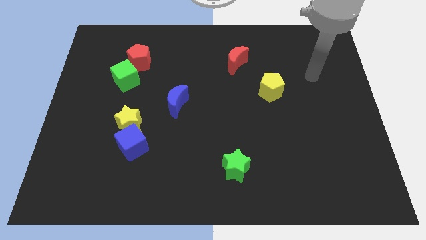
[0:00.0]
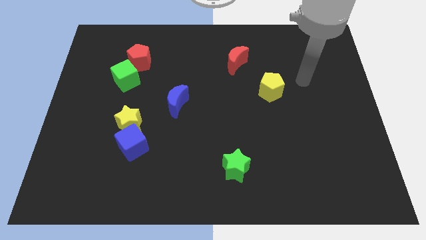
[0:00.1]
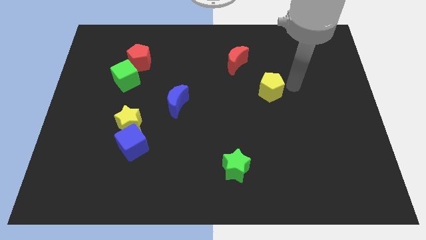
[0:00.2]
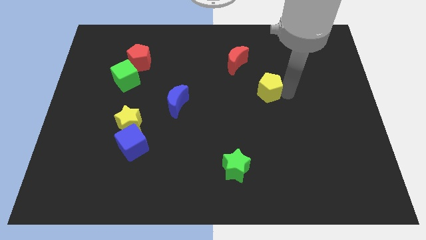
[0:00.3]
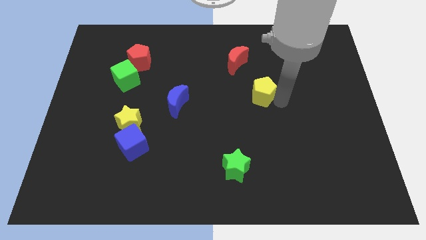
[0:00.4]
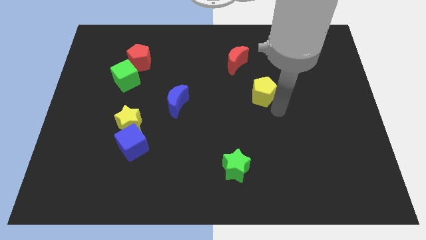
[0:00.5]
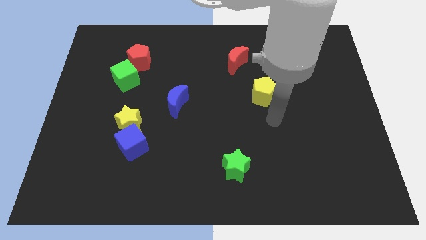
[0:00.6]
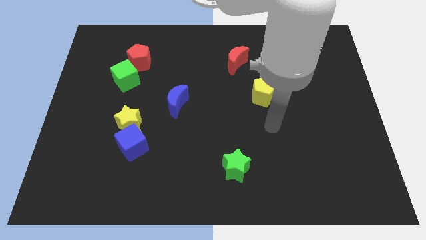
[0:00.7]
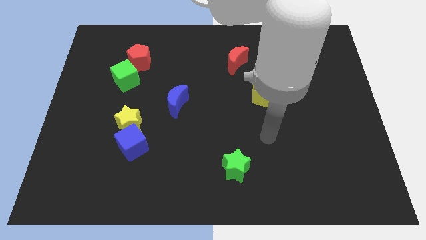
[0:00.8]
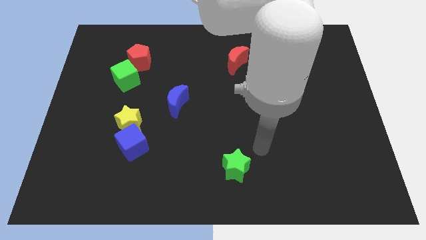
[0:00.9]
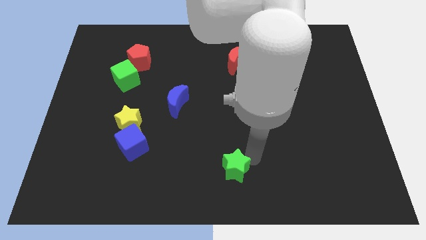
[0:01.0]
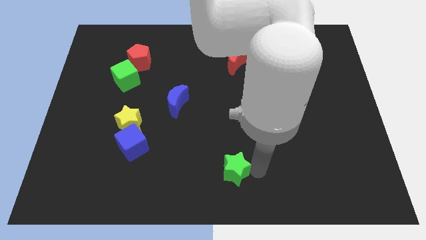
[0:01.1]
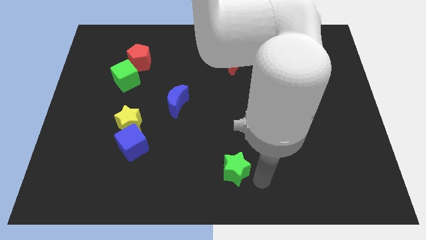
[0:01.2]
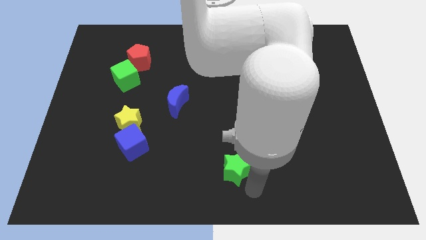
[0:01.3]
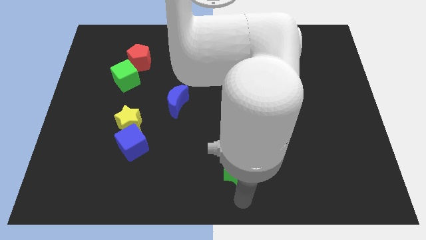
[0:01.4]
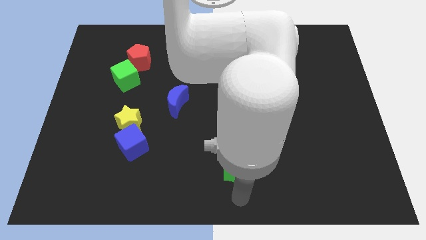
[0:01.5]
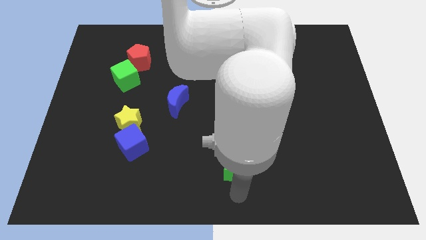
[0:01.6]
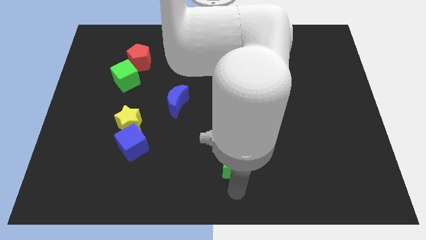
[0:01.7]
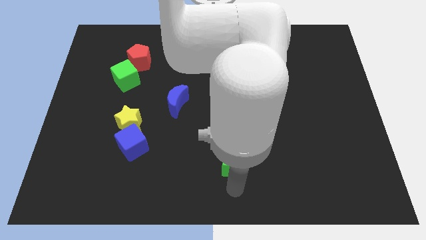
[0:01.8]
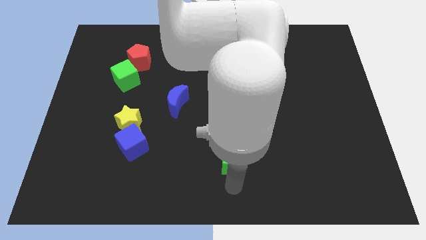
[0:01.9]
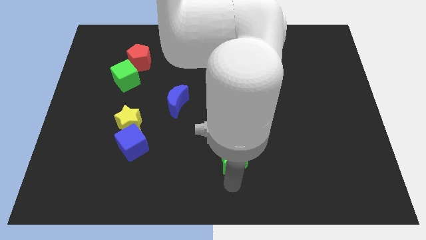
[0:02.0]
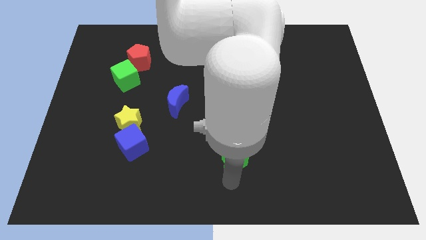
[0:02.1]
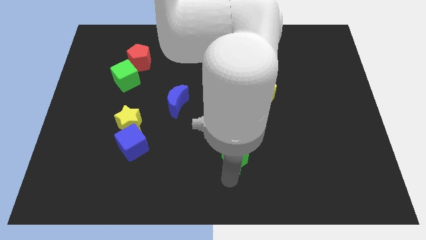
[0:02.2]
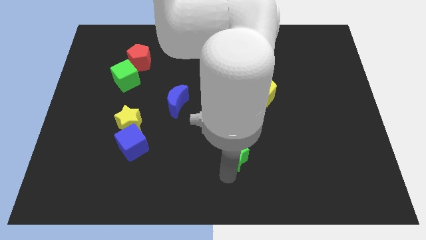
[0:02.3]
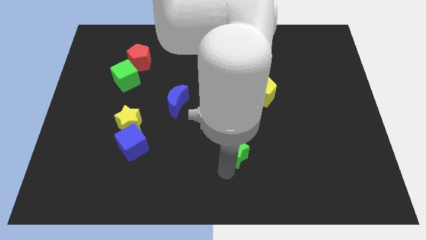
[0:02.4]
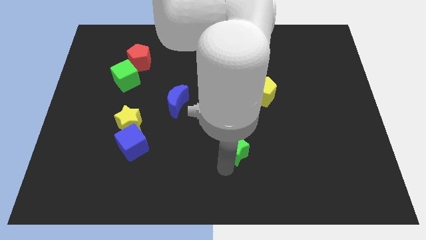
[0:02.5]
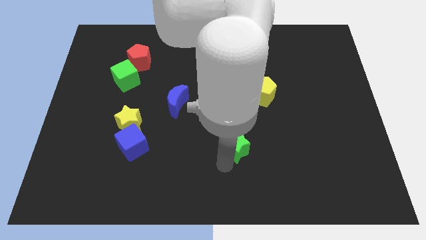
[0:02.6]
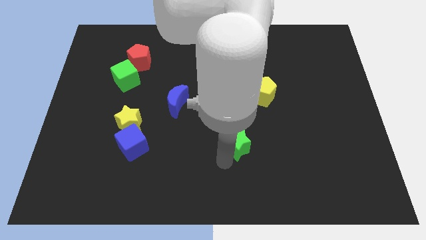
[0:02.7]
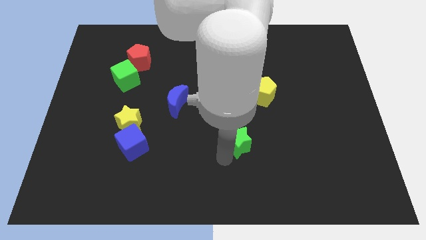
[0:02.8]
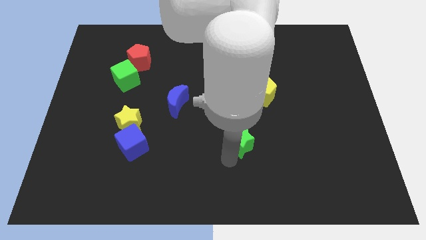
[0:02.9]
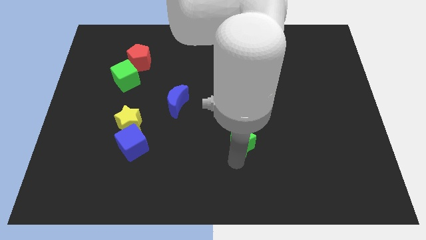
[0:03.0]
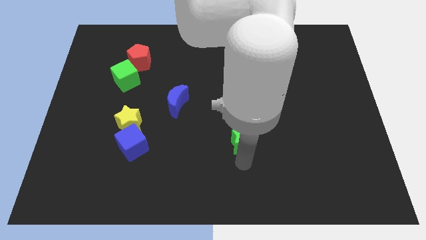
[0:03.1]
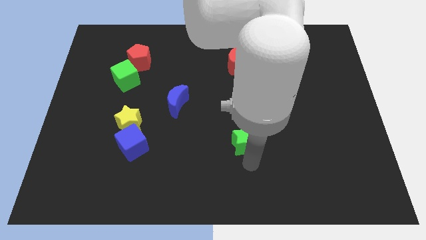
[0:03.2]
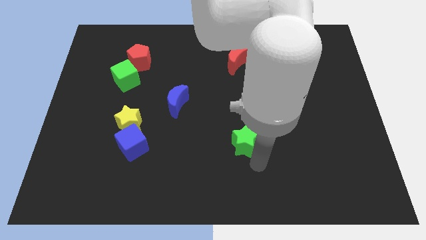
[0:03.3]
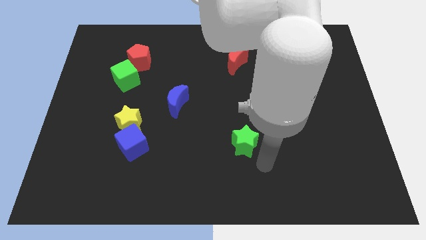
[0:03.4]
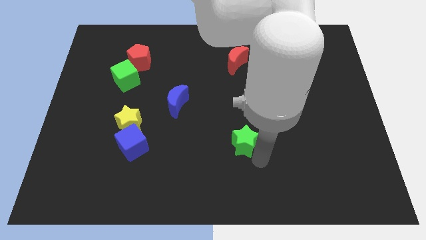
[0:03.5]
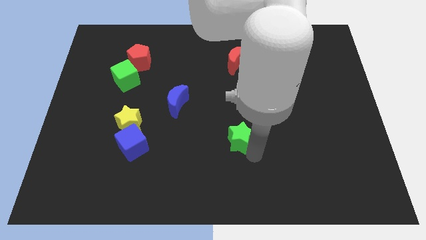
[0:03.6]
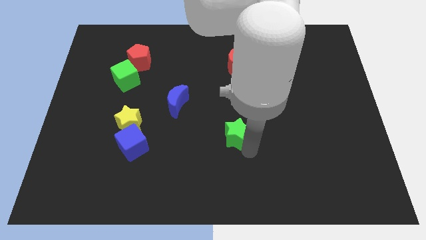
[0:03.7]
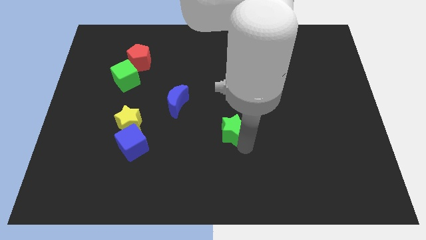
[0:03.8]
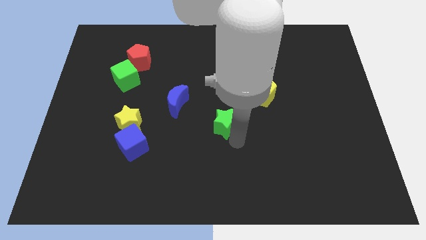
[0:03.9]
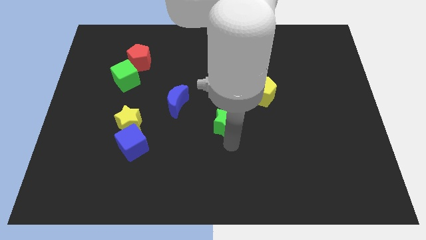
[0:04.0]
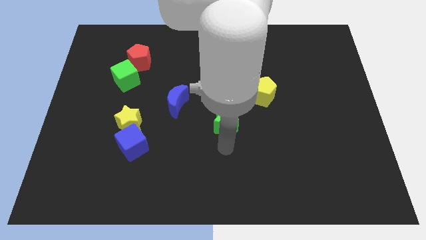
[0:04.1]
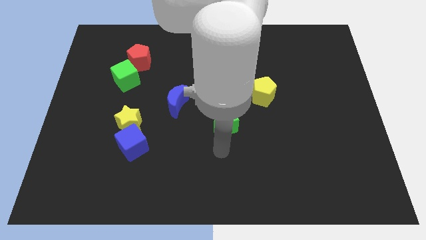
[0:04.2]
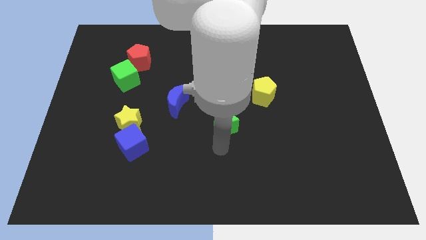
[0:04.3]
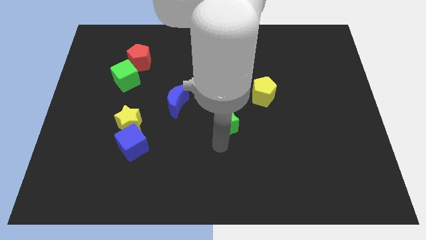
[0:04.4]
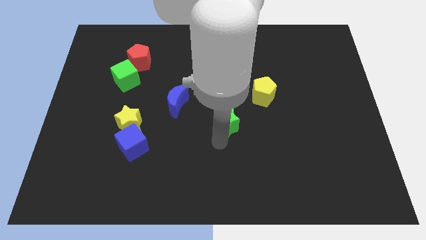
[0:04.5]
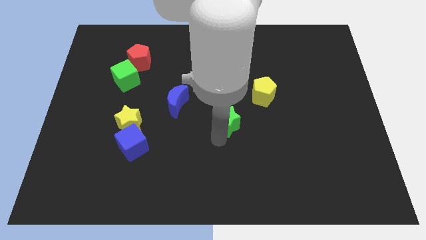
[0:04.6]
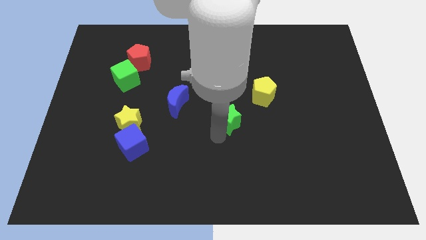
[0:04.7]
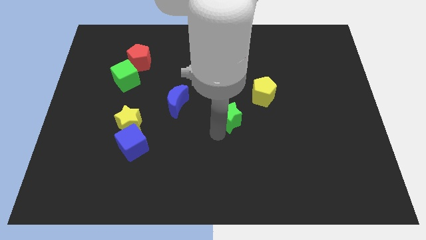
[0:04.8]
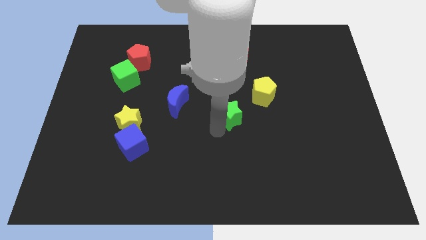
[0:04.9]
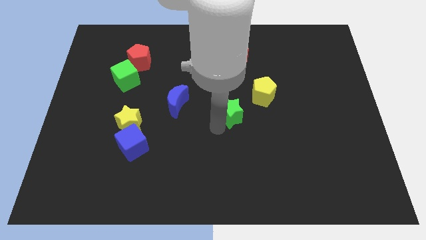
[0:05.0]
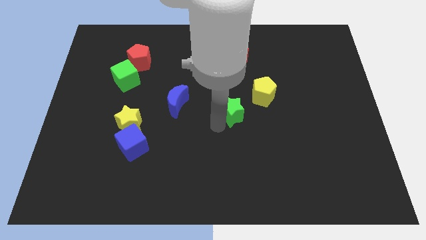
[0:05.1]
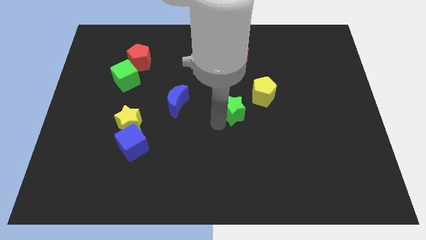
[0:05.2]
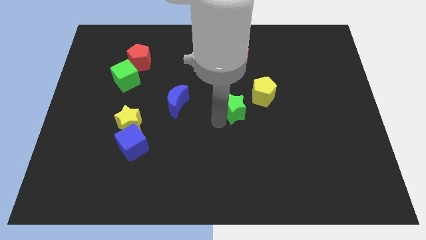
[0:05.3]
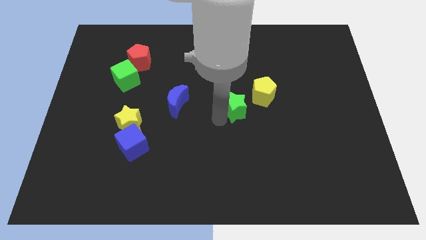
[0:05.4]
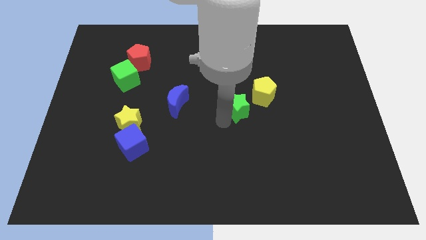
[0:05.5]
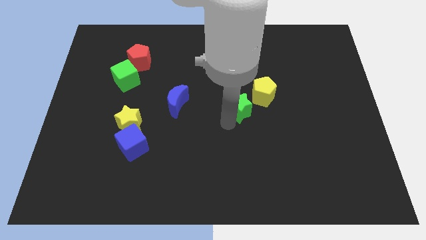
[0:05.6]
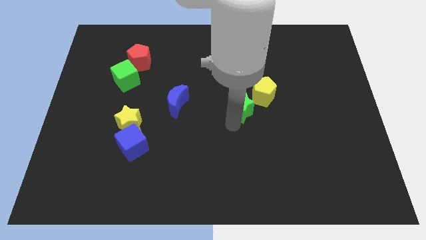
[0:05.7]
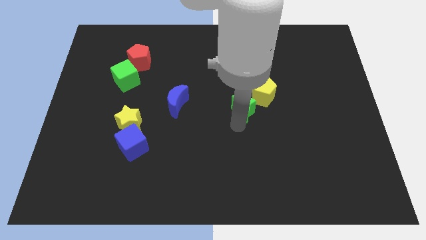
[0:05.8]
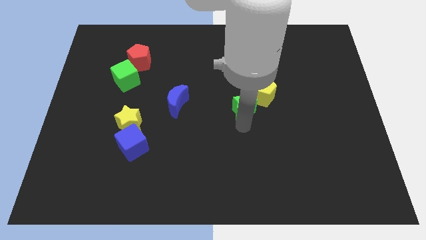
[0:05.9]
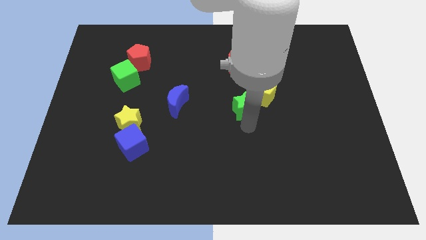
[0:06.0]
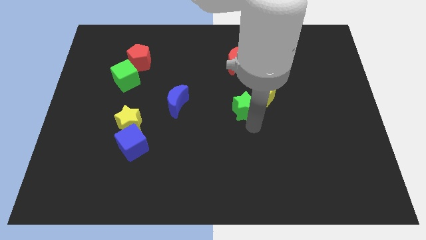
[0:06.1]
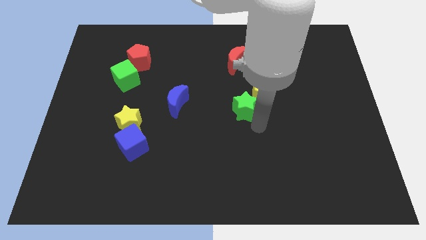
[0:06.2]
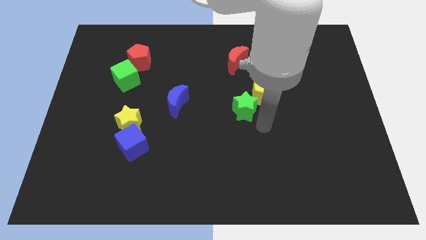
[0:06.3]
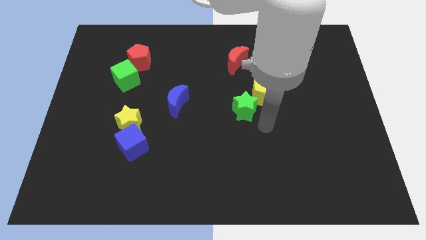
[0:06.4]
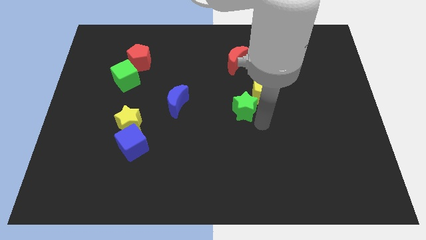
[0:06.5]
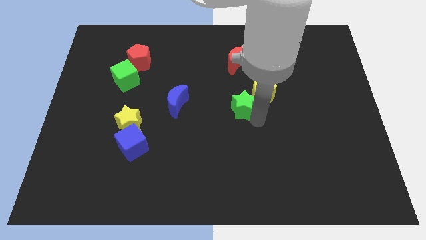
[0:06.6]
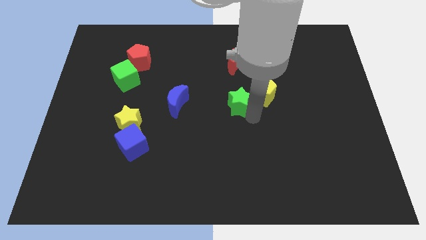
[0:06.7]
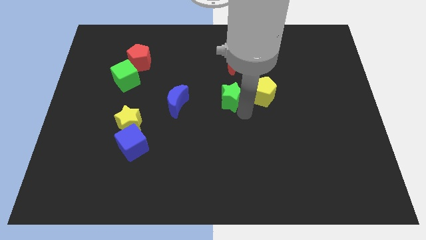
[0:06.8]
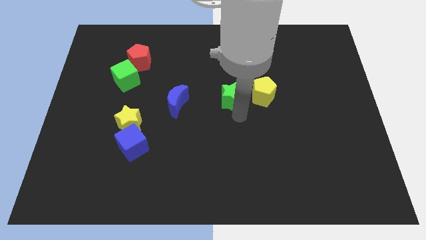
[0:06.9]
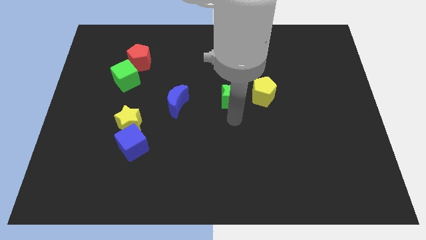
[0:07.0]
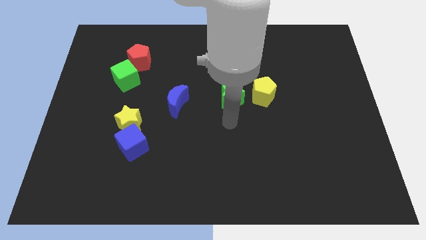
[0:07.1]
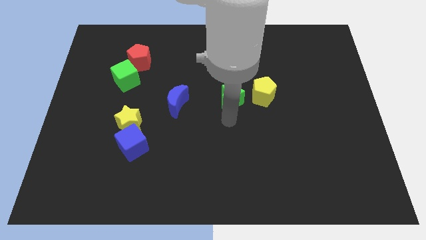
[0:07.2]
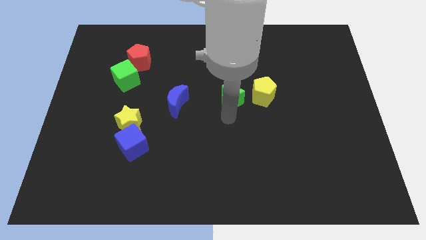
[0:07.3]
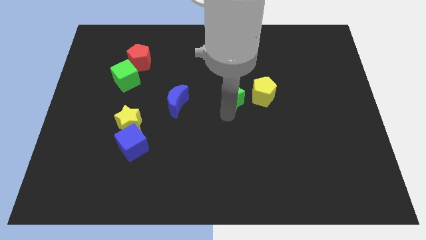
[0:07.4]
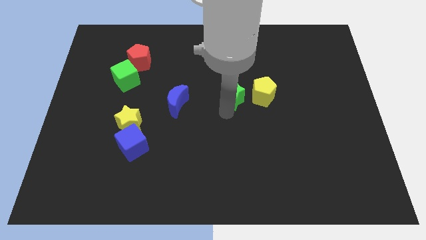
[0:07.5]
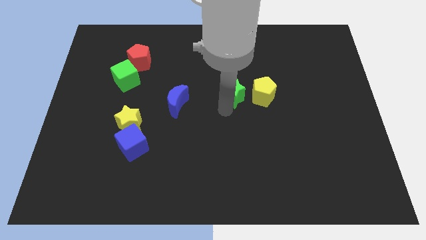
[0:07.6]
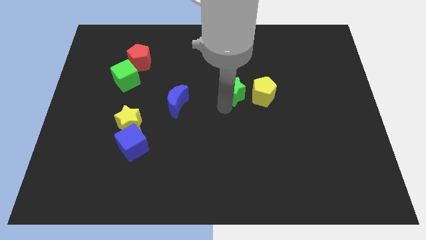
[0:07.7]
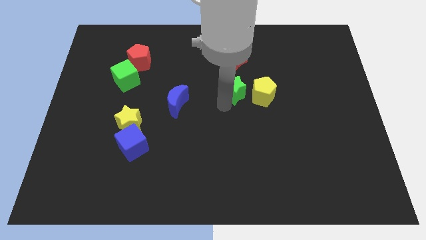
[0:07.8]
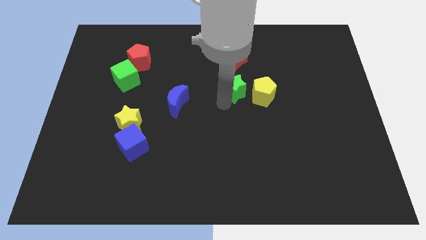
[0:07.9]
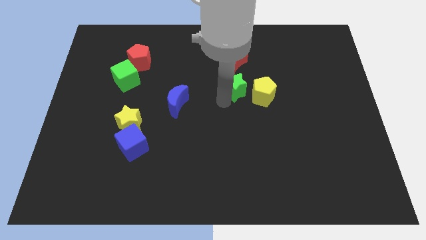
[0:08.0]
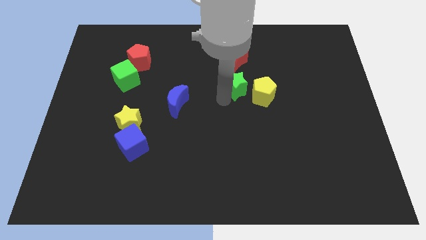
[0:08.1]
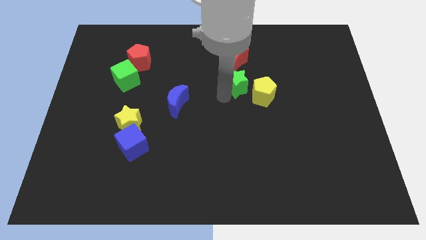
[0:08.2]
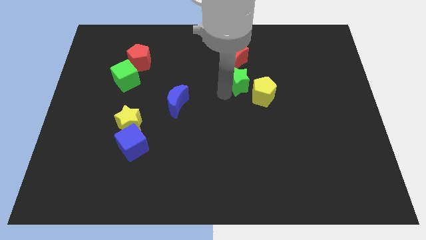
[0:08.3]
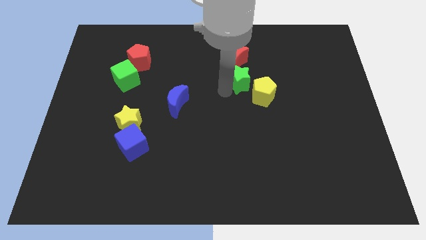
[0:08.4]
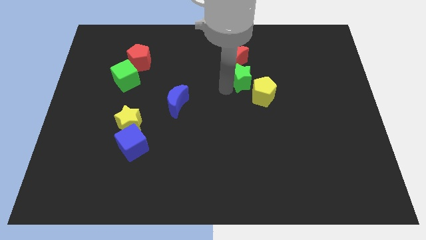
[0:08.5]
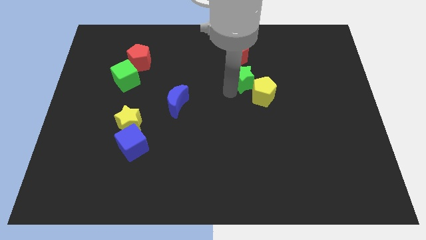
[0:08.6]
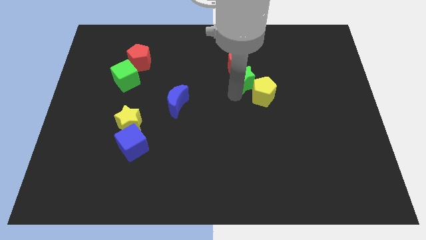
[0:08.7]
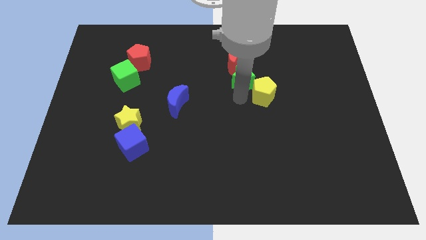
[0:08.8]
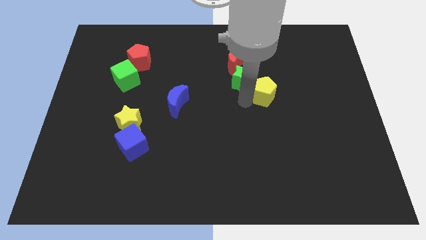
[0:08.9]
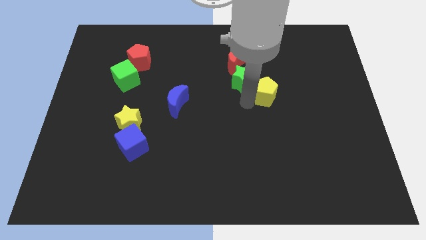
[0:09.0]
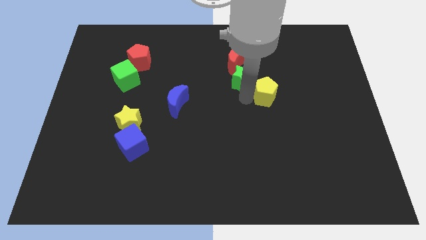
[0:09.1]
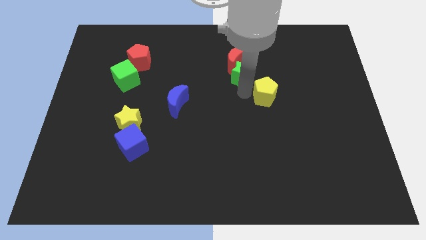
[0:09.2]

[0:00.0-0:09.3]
slide the green star next to the red moon
